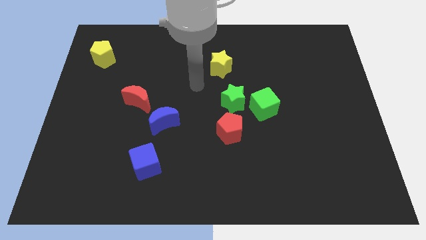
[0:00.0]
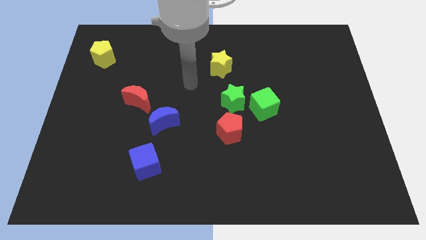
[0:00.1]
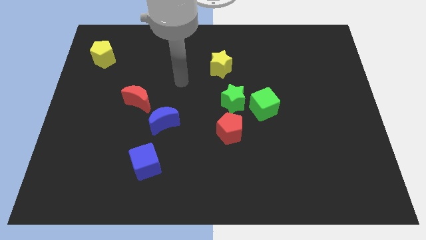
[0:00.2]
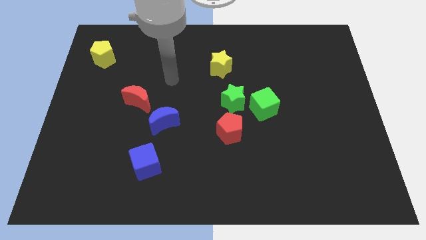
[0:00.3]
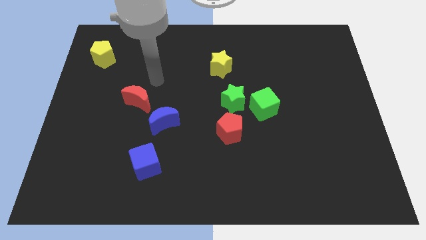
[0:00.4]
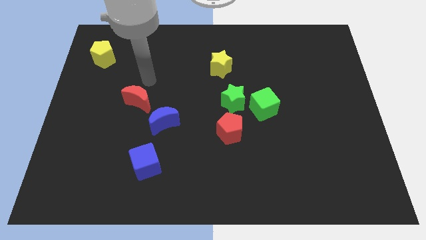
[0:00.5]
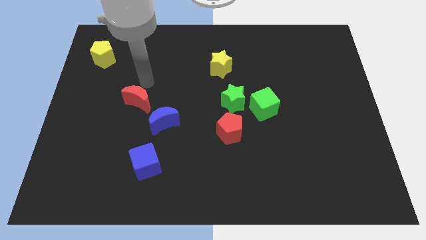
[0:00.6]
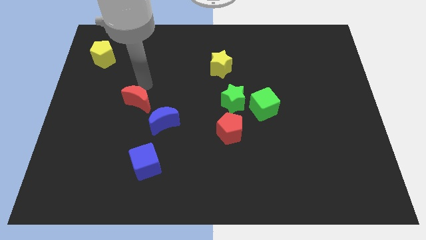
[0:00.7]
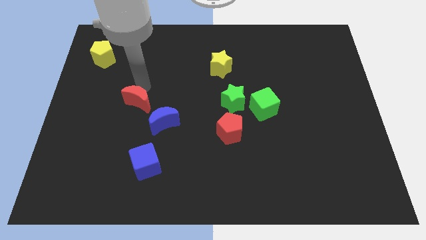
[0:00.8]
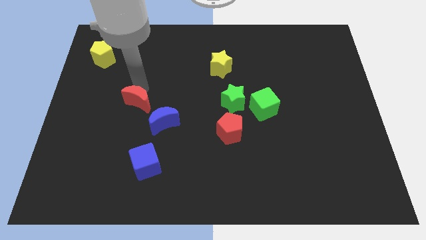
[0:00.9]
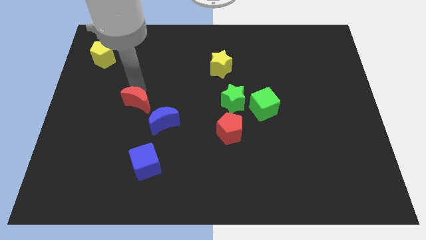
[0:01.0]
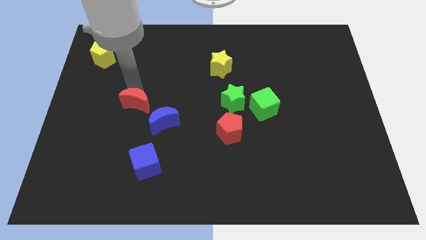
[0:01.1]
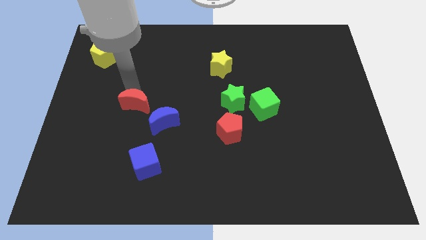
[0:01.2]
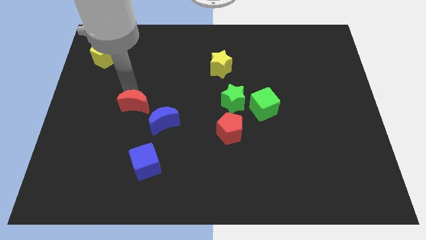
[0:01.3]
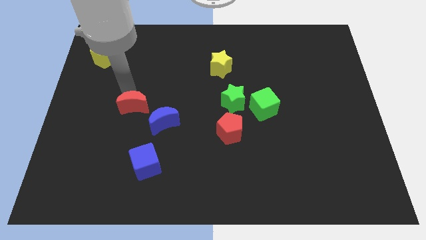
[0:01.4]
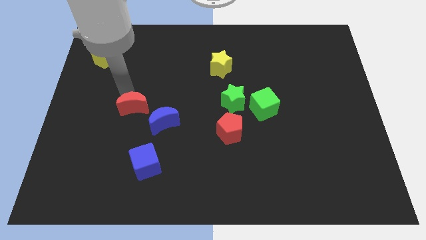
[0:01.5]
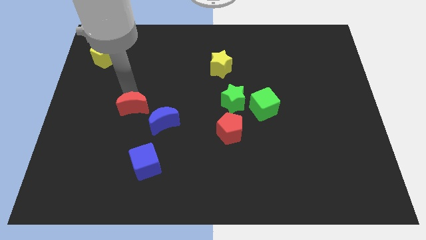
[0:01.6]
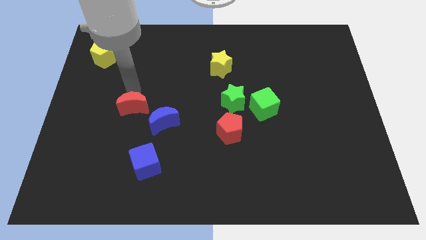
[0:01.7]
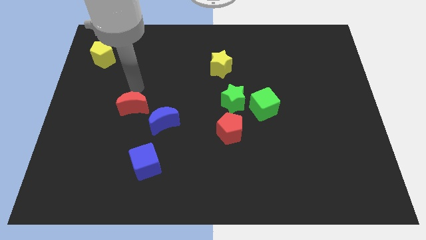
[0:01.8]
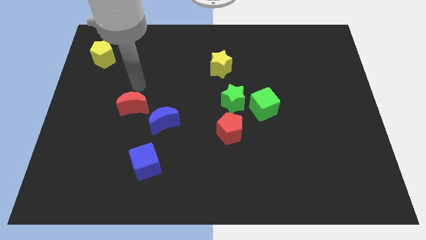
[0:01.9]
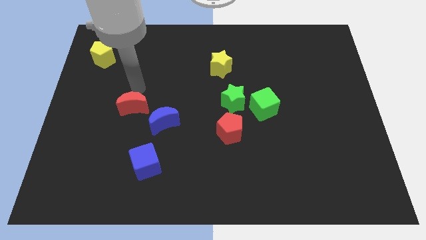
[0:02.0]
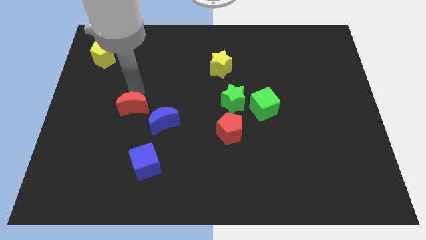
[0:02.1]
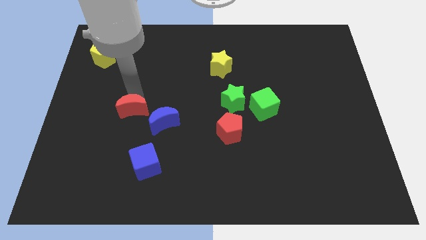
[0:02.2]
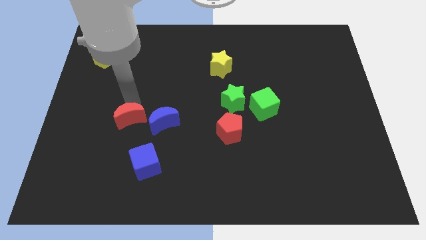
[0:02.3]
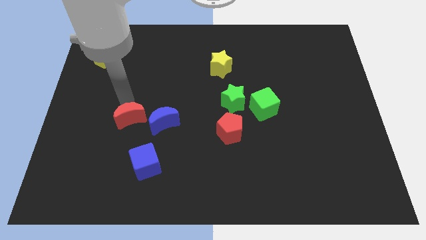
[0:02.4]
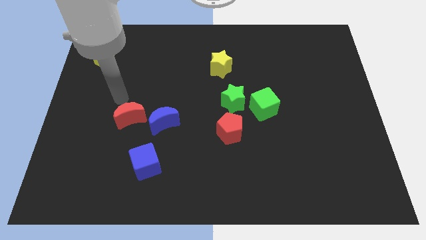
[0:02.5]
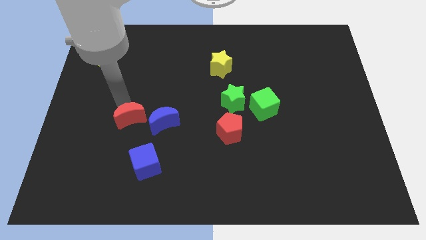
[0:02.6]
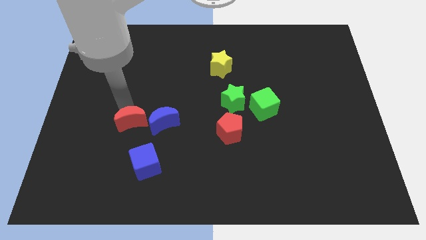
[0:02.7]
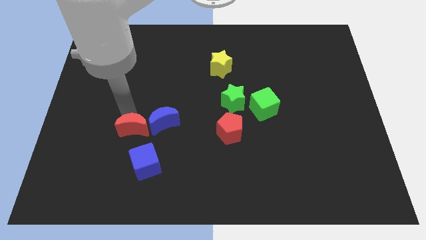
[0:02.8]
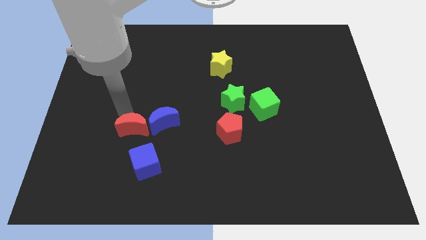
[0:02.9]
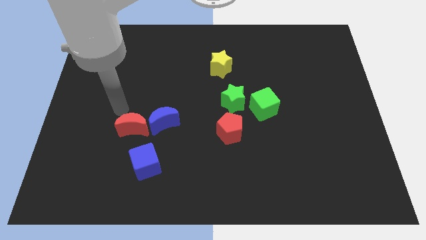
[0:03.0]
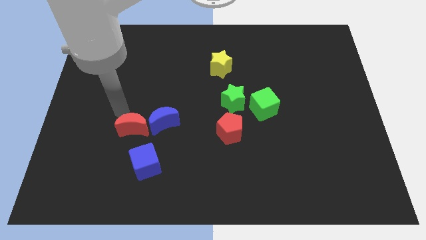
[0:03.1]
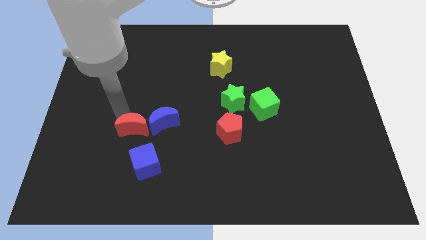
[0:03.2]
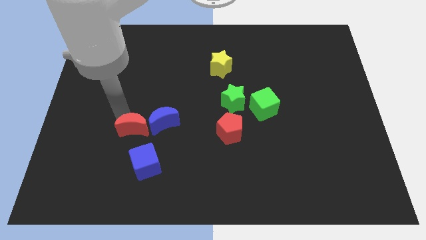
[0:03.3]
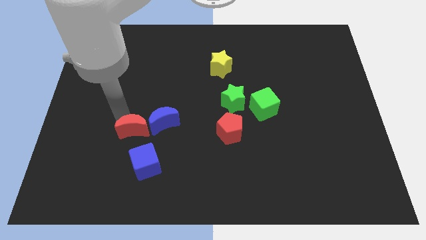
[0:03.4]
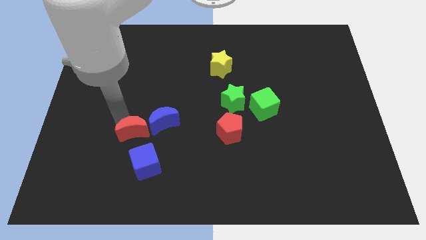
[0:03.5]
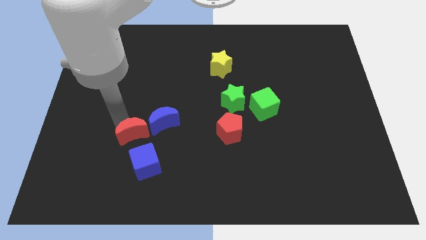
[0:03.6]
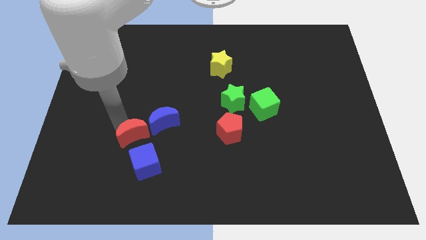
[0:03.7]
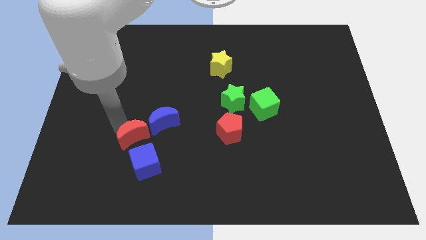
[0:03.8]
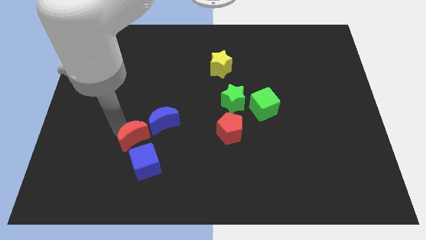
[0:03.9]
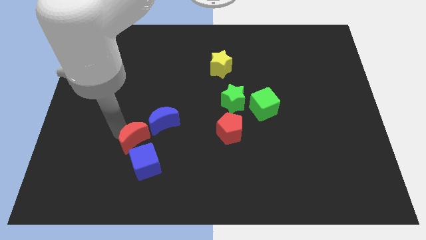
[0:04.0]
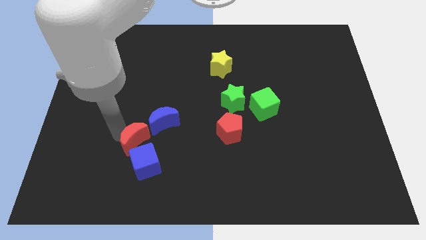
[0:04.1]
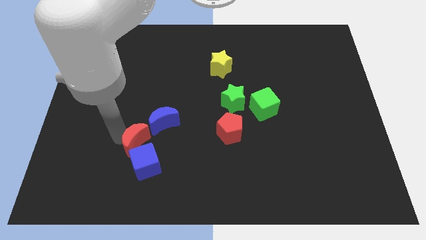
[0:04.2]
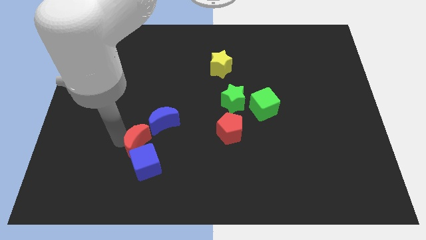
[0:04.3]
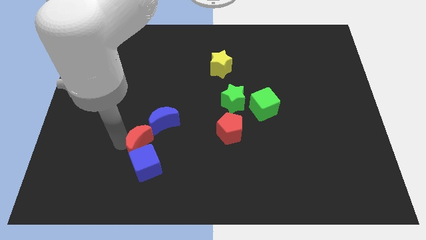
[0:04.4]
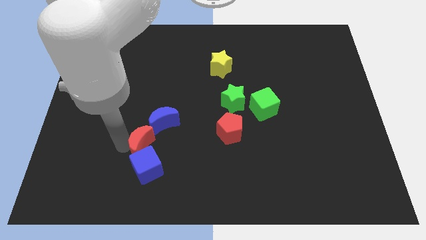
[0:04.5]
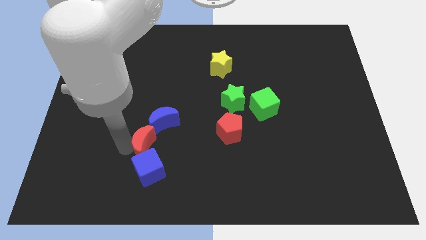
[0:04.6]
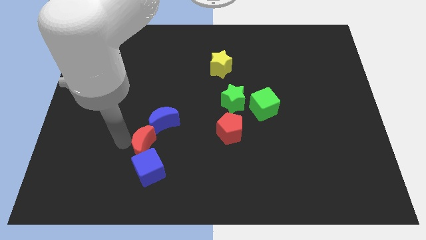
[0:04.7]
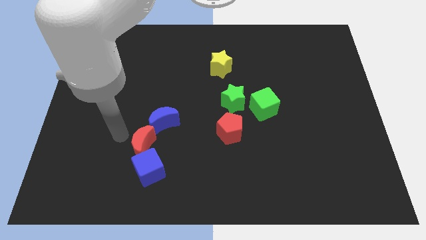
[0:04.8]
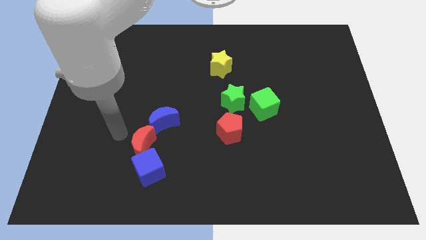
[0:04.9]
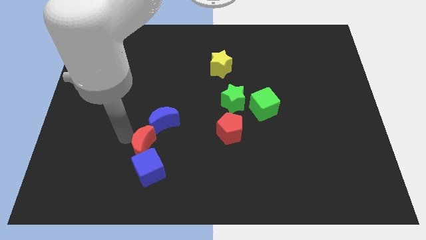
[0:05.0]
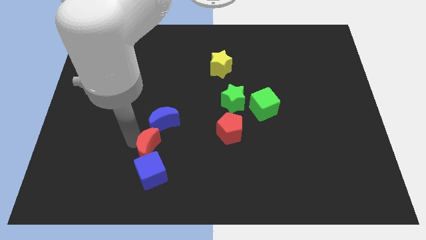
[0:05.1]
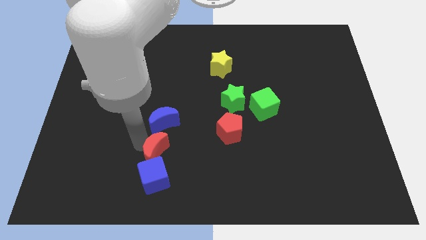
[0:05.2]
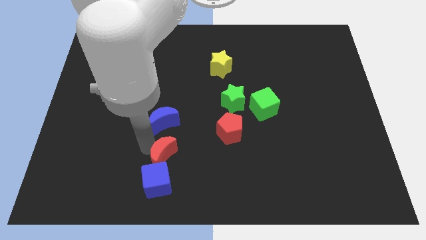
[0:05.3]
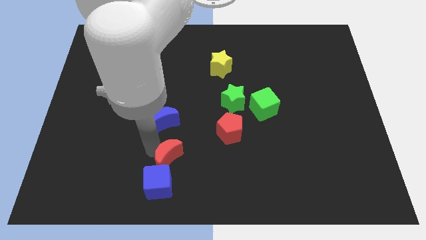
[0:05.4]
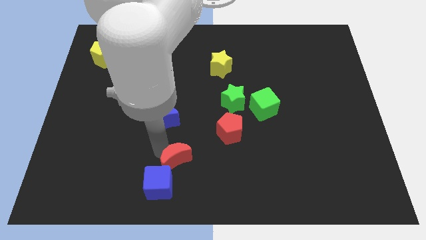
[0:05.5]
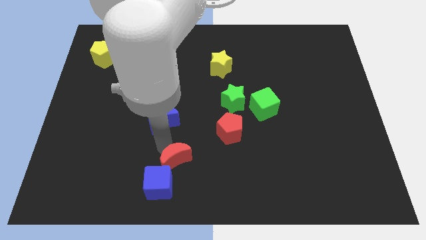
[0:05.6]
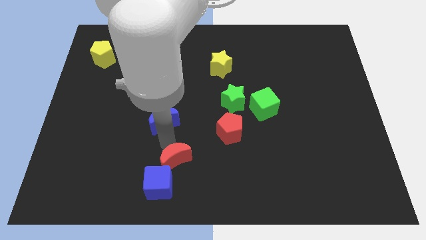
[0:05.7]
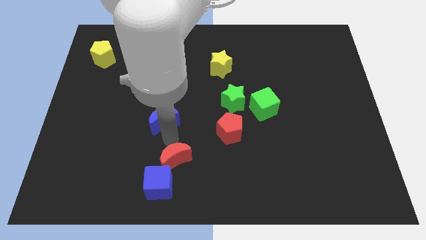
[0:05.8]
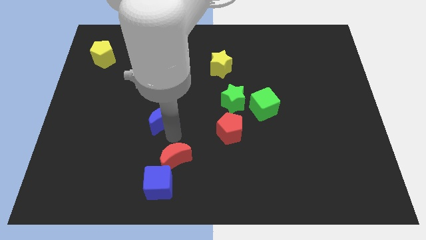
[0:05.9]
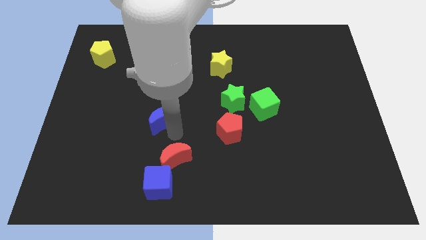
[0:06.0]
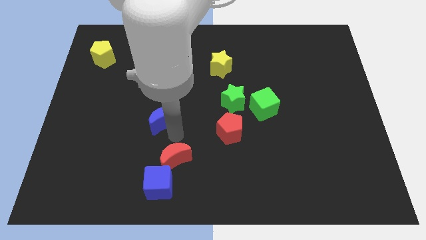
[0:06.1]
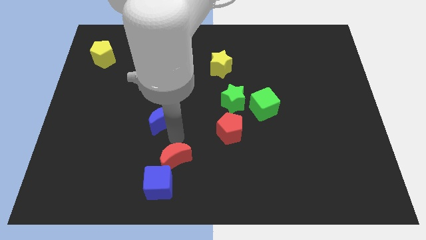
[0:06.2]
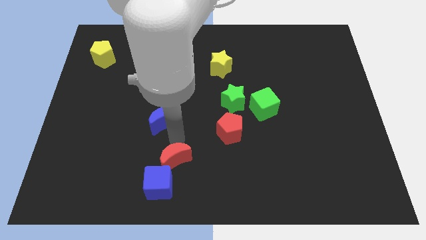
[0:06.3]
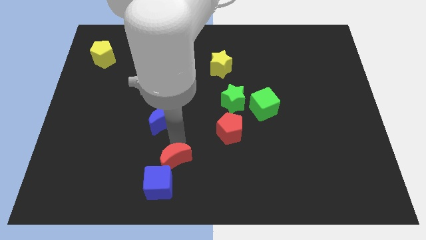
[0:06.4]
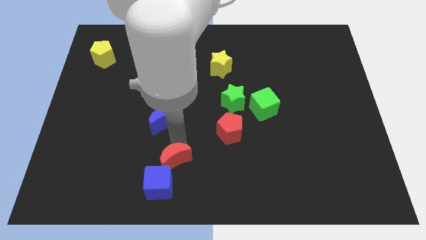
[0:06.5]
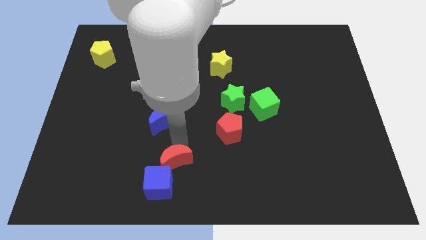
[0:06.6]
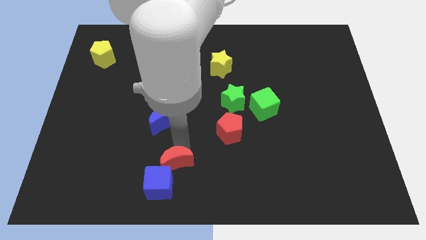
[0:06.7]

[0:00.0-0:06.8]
put the red moon to the bottom side

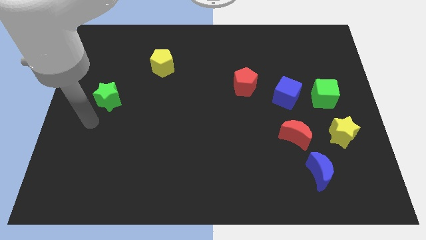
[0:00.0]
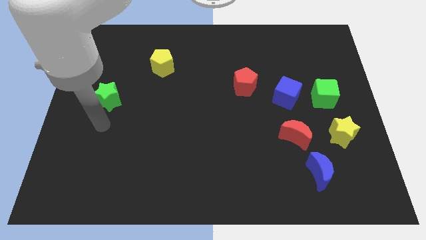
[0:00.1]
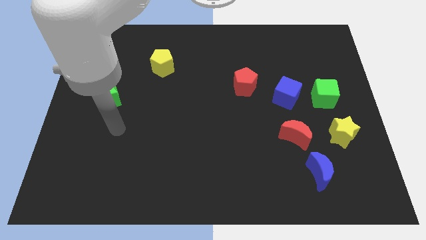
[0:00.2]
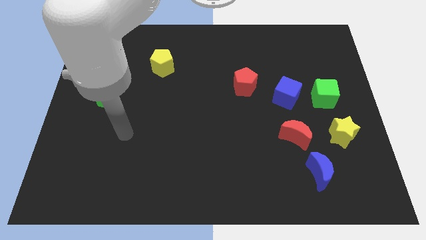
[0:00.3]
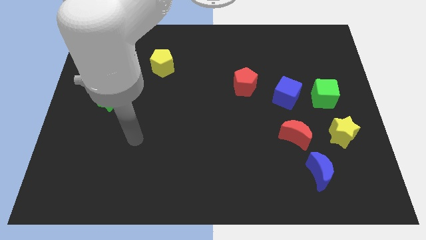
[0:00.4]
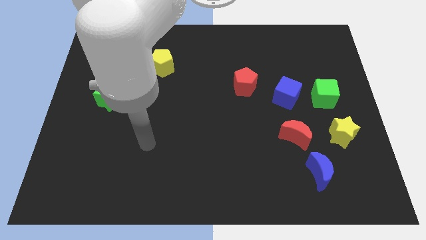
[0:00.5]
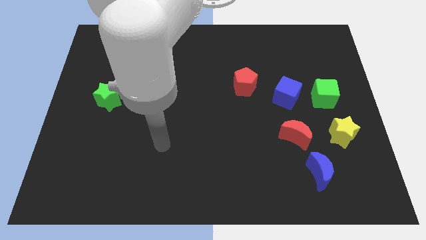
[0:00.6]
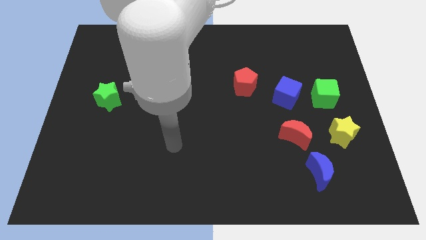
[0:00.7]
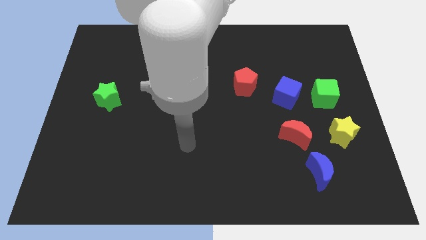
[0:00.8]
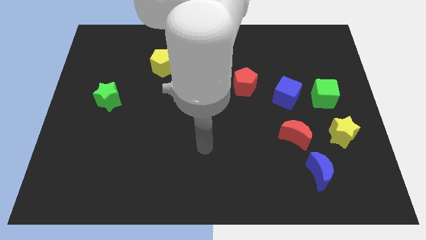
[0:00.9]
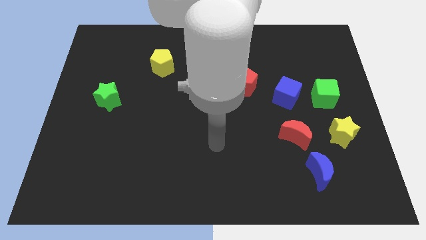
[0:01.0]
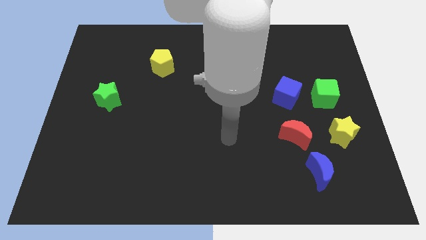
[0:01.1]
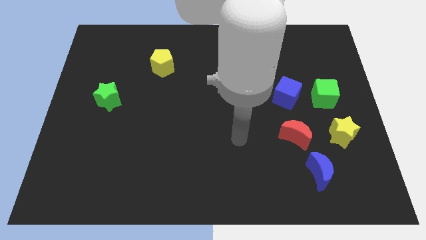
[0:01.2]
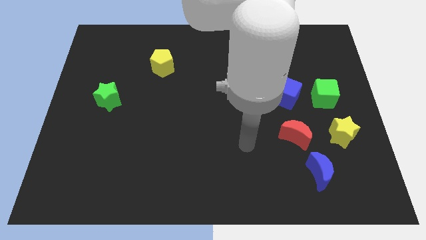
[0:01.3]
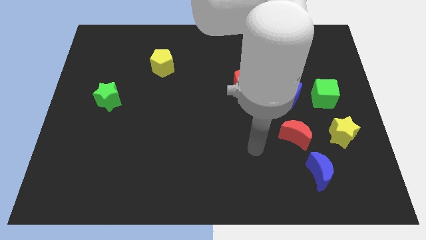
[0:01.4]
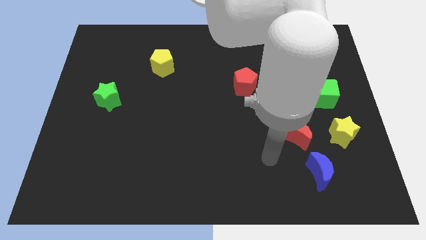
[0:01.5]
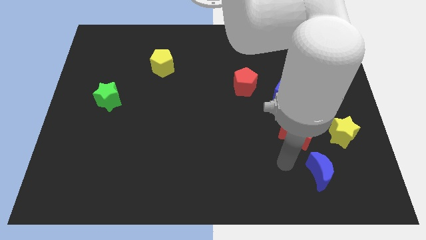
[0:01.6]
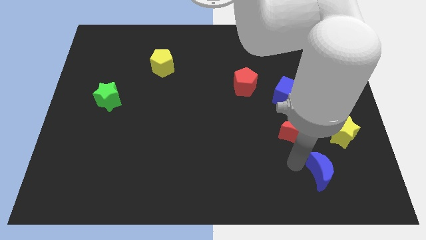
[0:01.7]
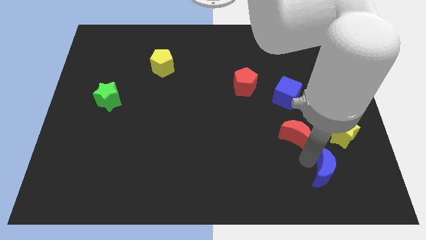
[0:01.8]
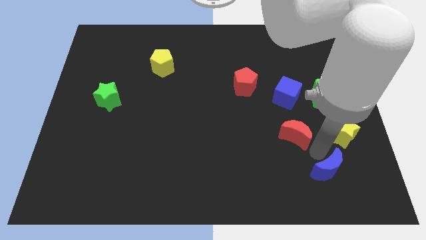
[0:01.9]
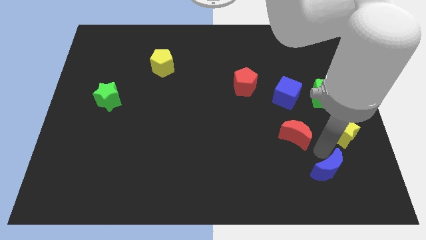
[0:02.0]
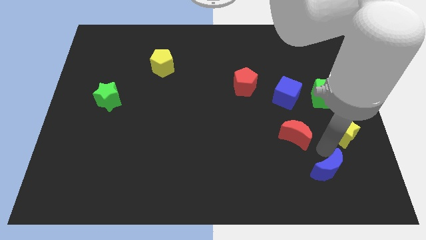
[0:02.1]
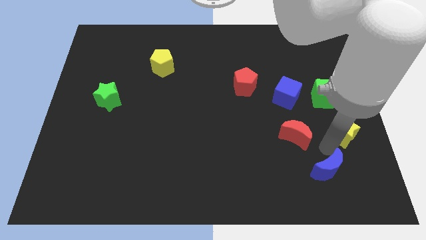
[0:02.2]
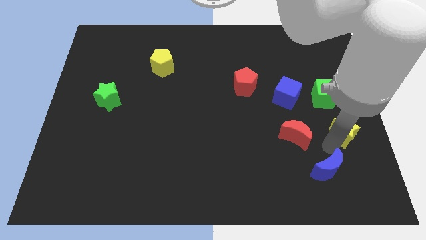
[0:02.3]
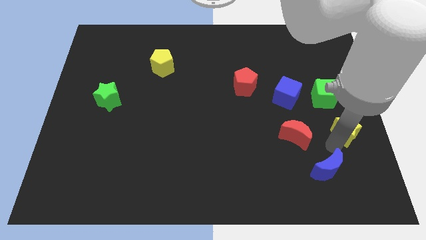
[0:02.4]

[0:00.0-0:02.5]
put the yellow star to the center right
